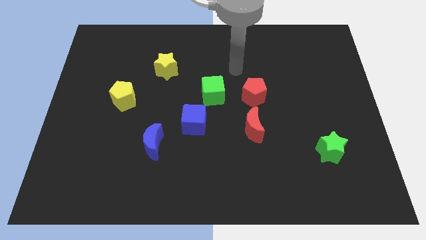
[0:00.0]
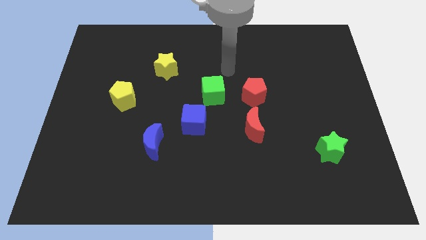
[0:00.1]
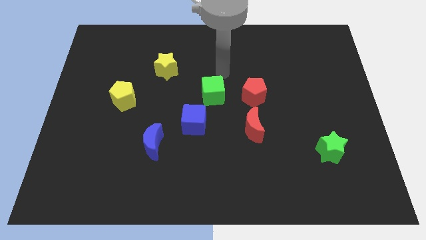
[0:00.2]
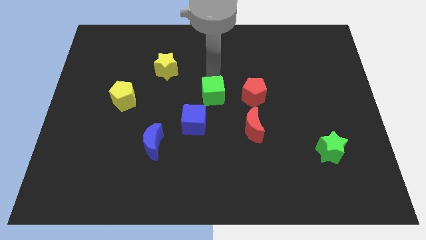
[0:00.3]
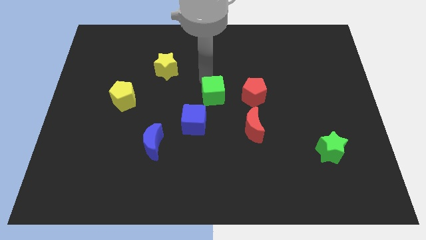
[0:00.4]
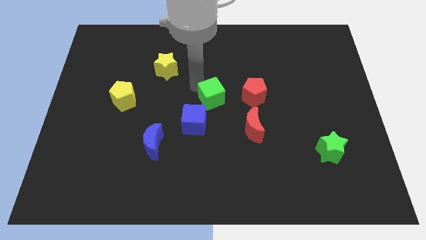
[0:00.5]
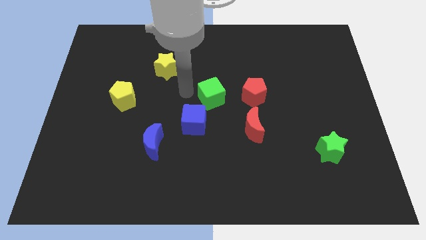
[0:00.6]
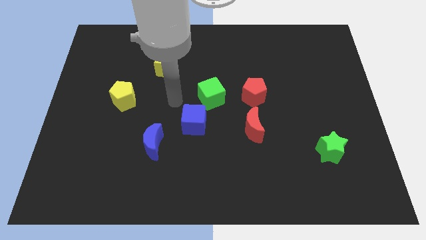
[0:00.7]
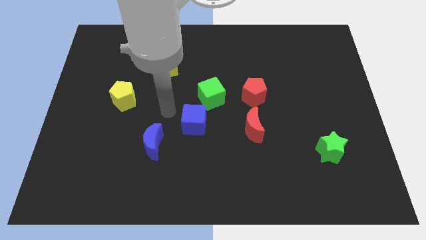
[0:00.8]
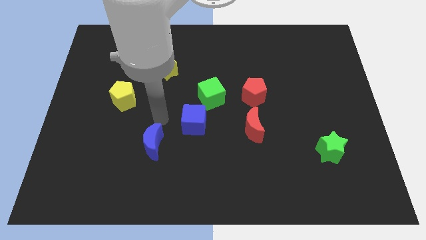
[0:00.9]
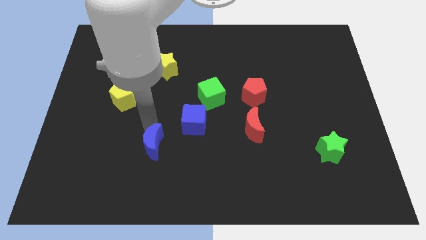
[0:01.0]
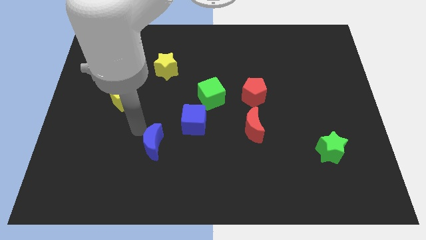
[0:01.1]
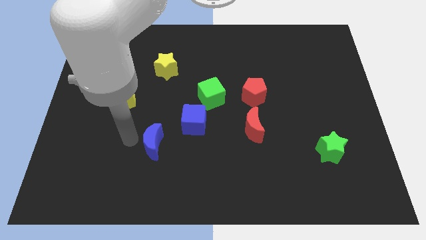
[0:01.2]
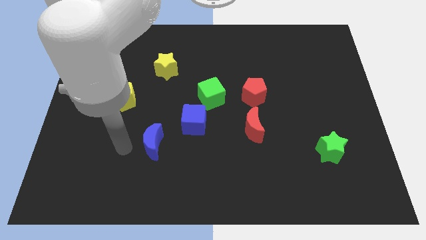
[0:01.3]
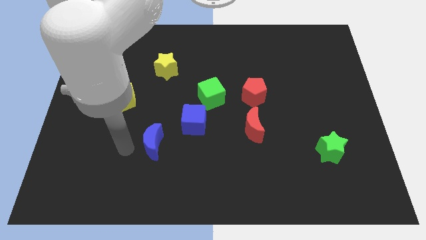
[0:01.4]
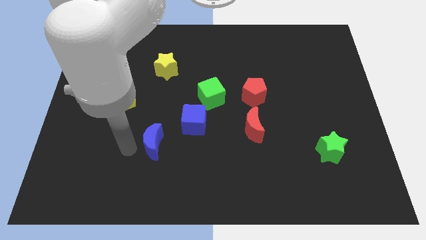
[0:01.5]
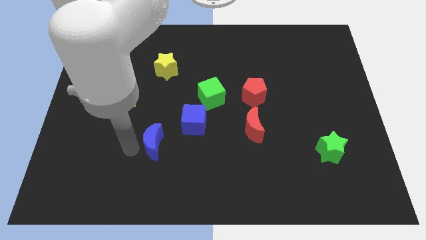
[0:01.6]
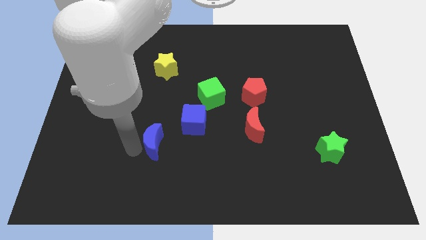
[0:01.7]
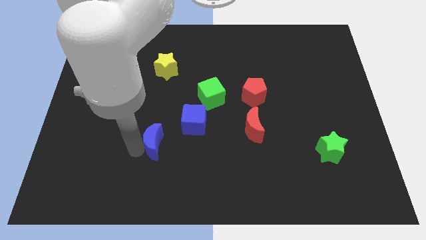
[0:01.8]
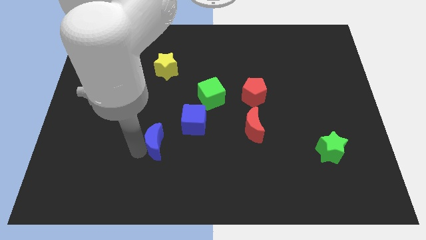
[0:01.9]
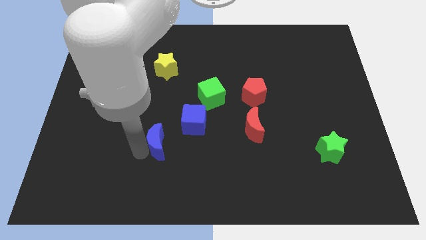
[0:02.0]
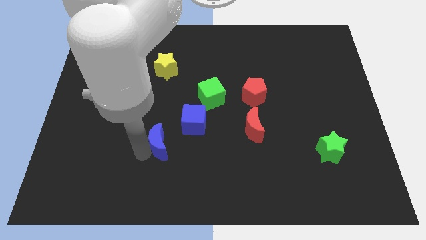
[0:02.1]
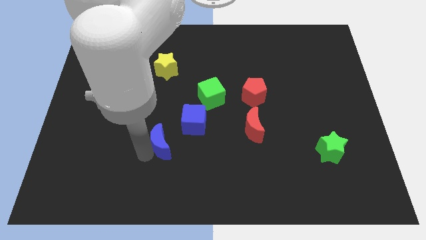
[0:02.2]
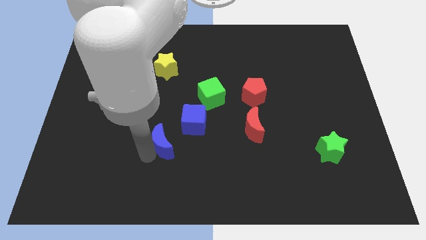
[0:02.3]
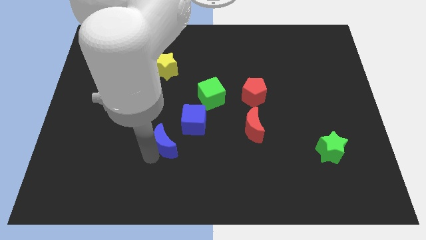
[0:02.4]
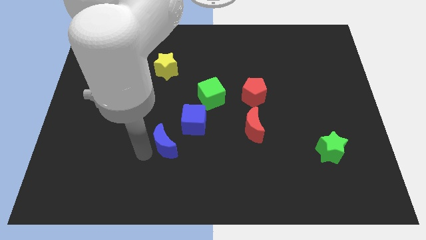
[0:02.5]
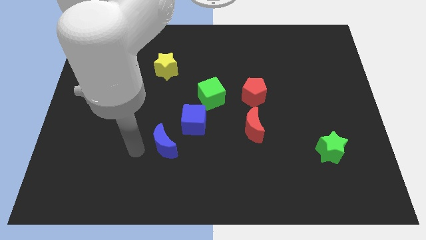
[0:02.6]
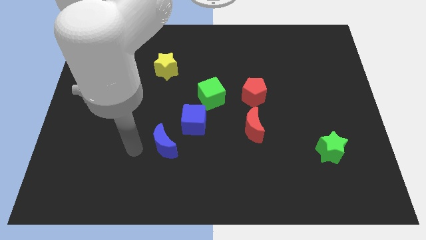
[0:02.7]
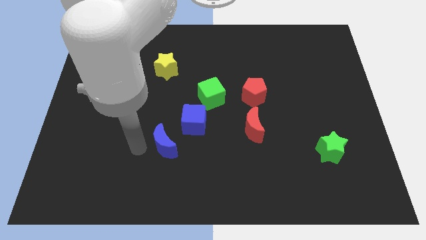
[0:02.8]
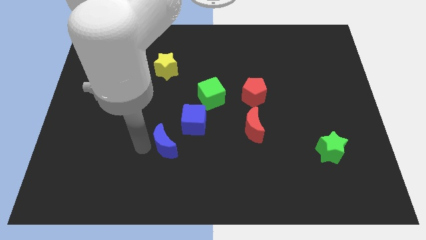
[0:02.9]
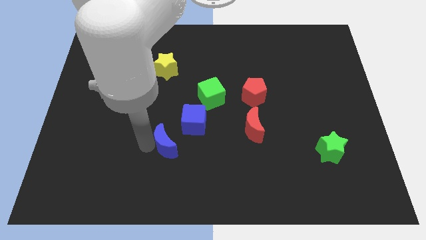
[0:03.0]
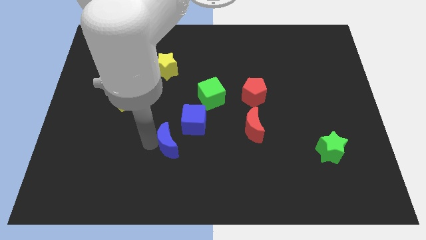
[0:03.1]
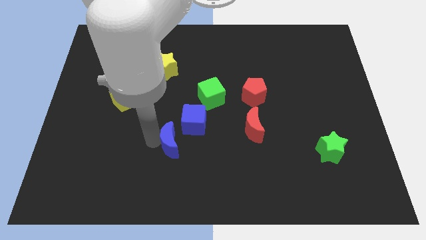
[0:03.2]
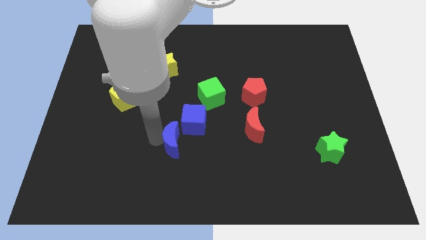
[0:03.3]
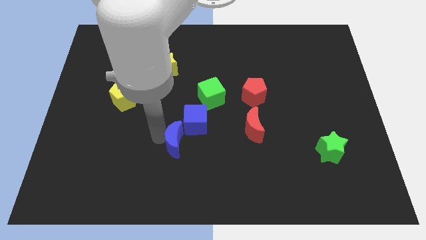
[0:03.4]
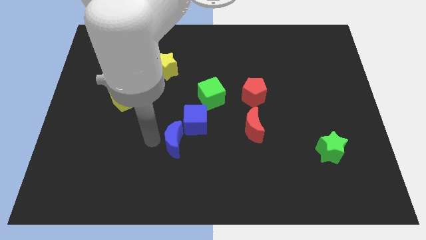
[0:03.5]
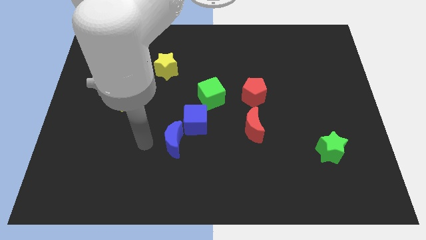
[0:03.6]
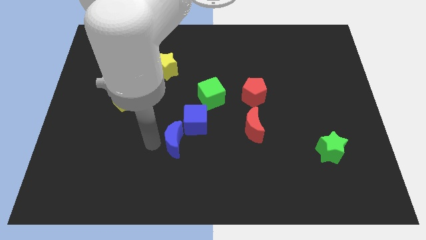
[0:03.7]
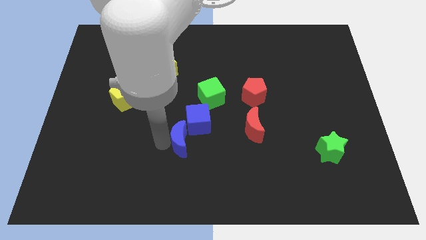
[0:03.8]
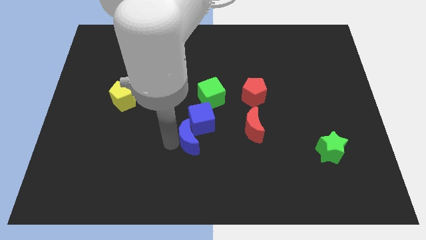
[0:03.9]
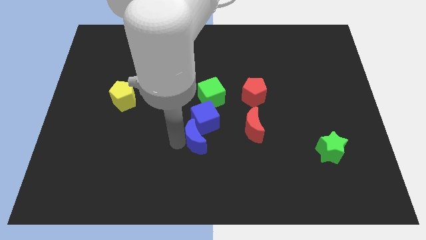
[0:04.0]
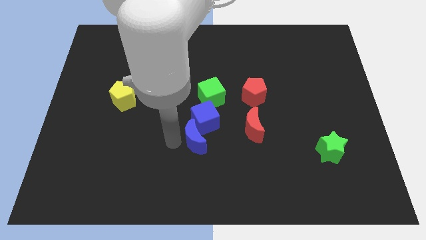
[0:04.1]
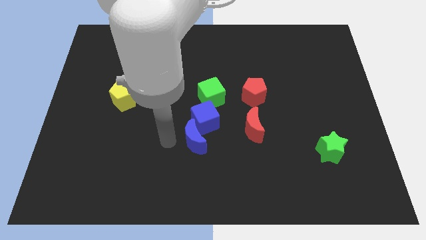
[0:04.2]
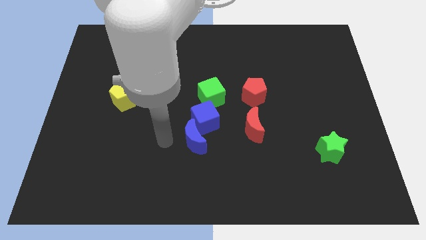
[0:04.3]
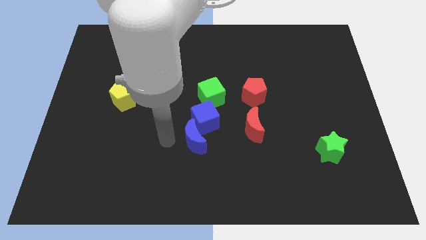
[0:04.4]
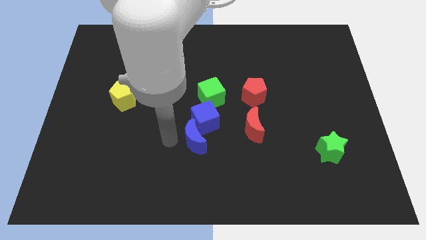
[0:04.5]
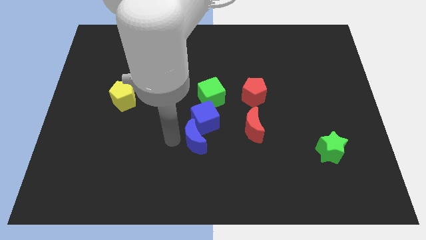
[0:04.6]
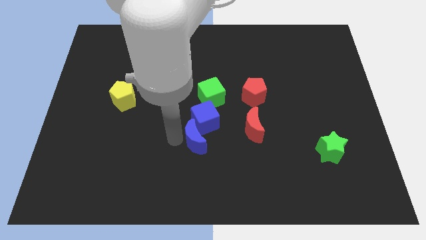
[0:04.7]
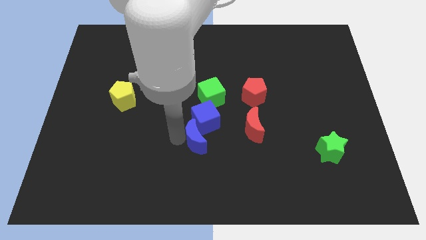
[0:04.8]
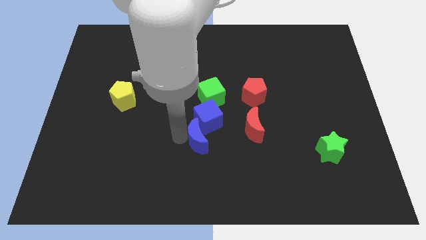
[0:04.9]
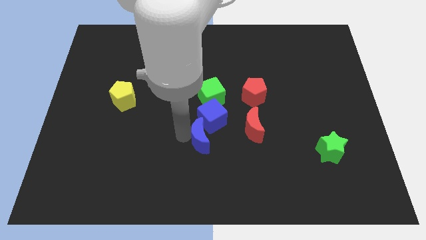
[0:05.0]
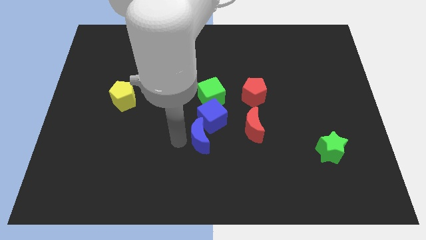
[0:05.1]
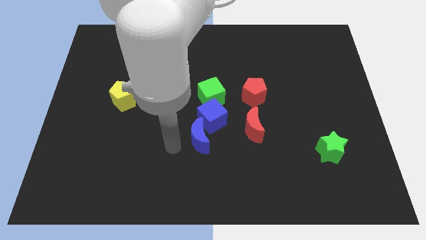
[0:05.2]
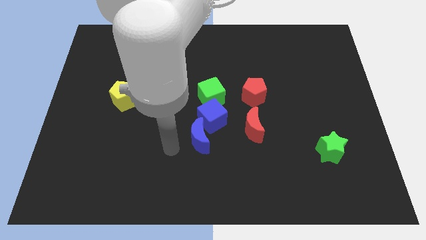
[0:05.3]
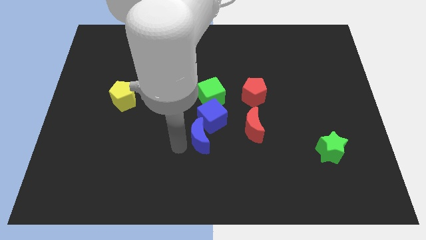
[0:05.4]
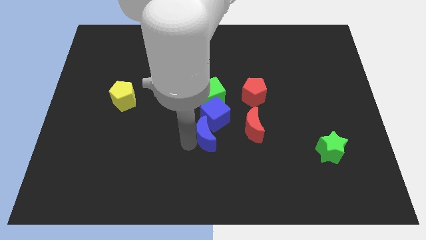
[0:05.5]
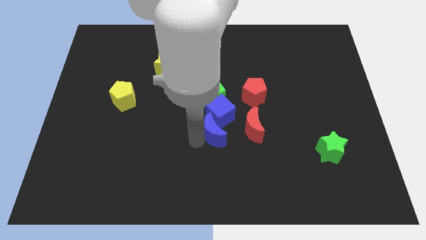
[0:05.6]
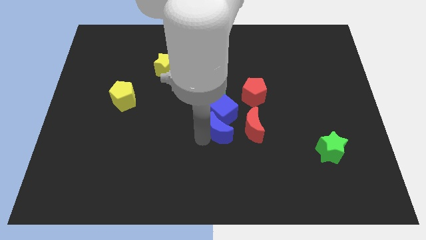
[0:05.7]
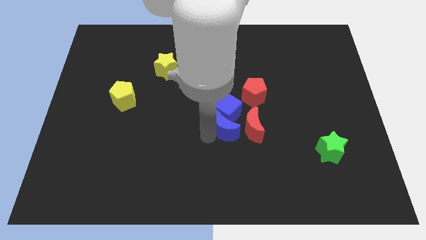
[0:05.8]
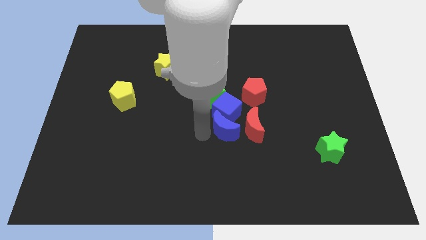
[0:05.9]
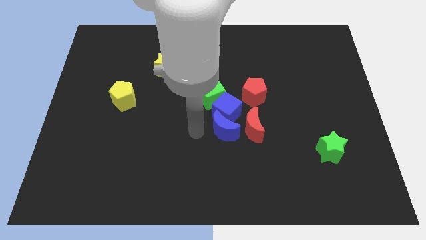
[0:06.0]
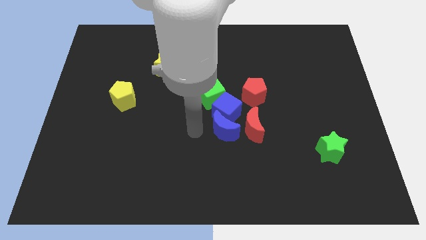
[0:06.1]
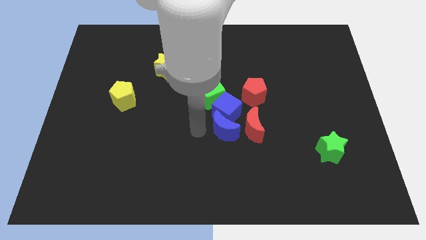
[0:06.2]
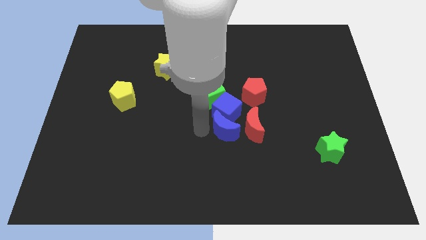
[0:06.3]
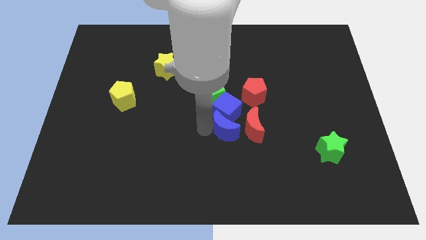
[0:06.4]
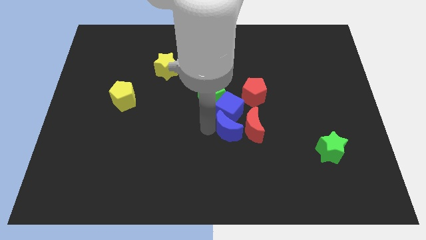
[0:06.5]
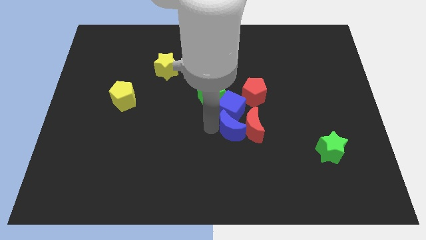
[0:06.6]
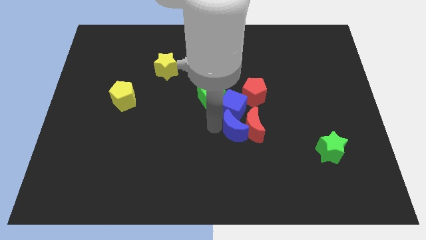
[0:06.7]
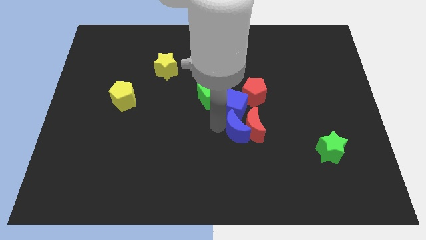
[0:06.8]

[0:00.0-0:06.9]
slide the blue moon below the red pentagon
